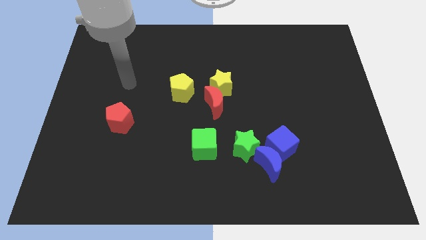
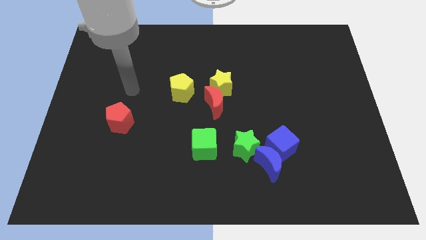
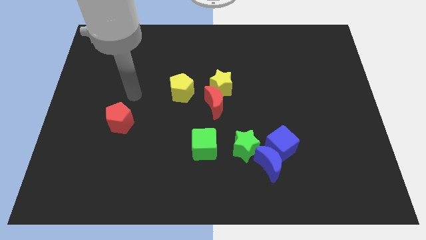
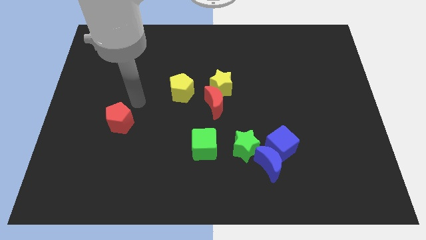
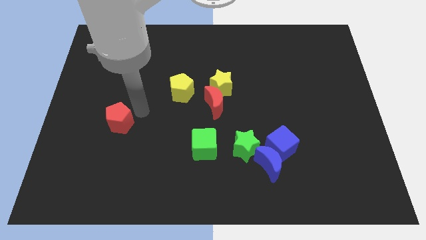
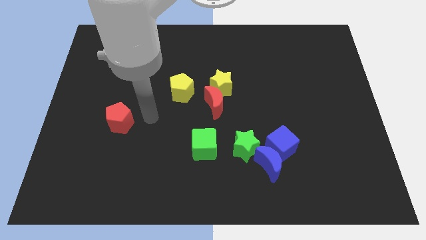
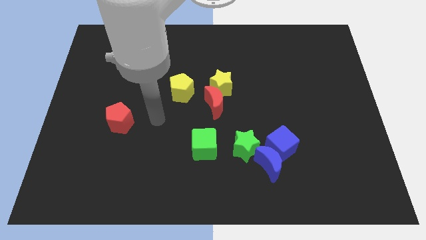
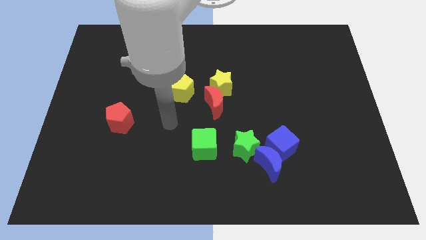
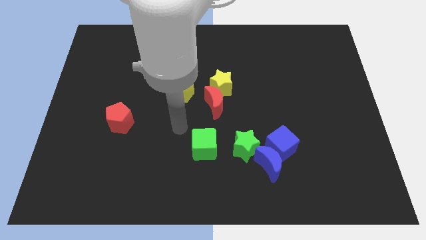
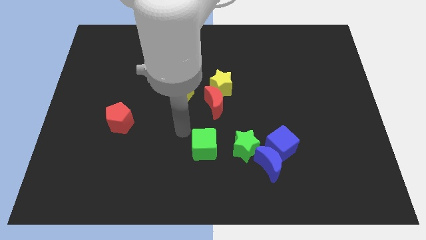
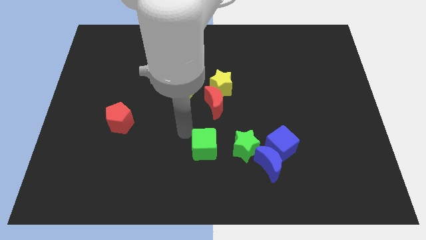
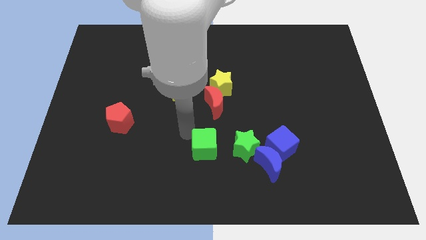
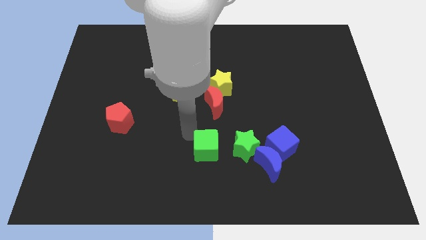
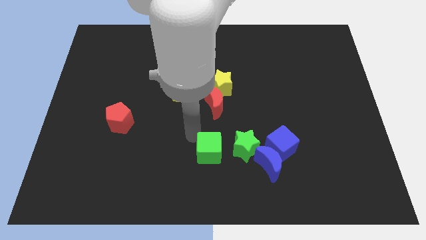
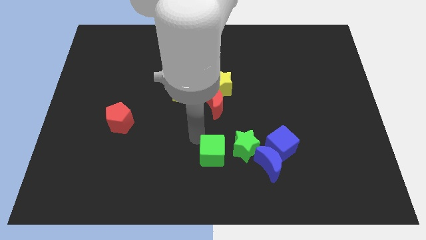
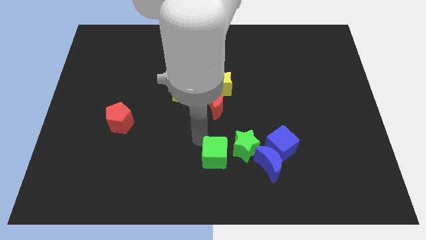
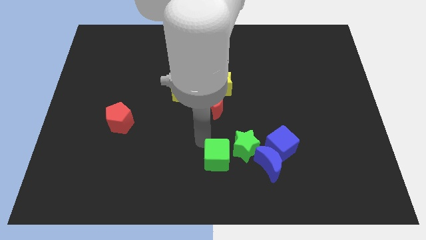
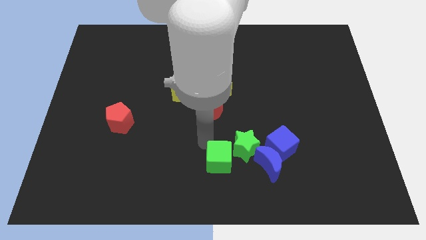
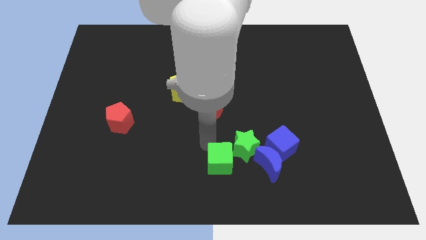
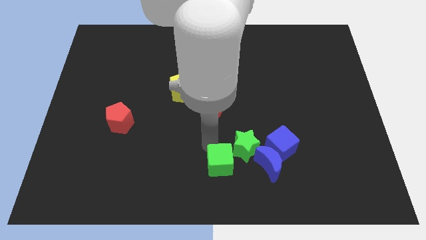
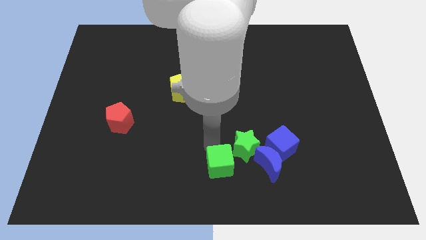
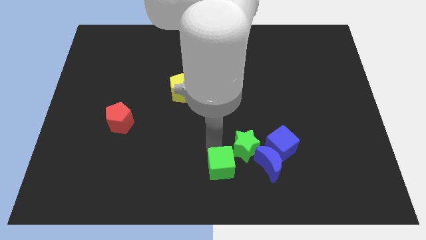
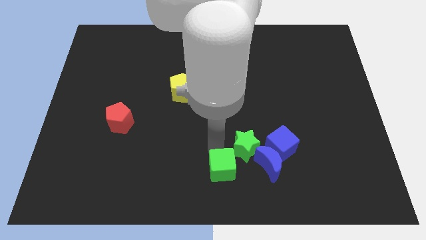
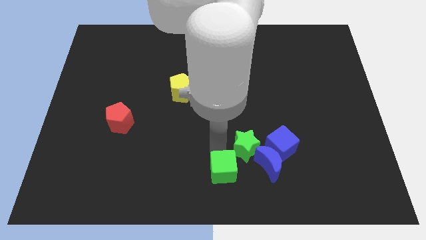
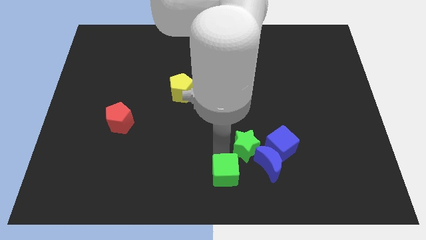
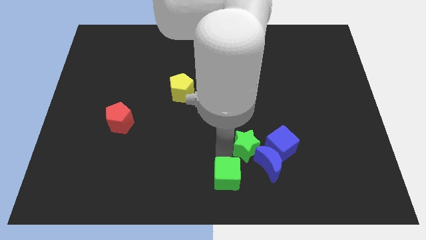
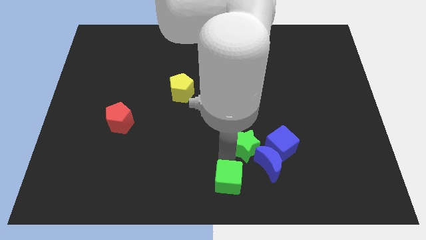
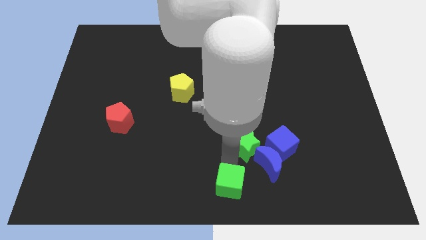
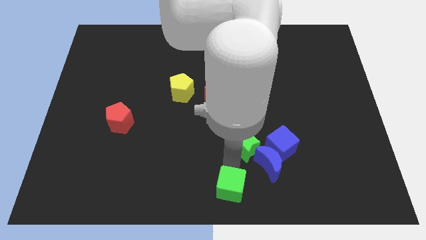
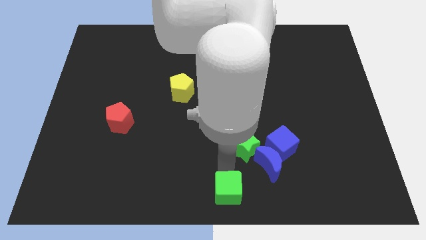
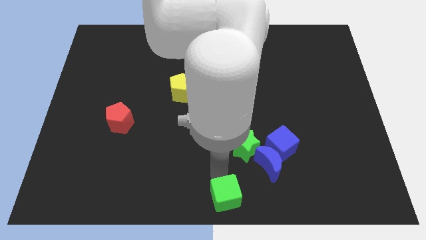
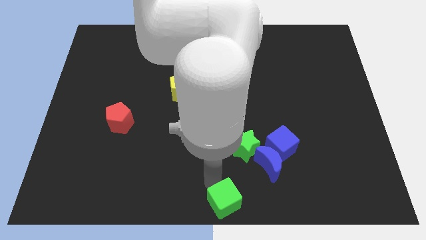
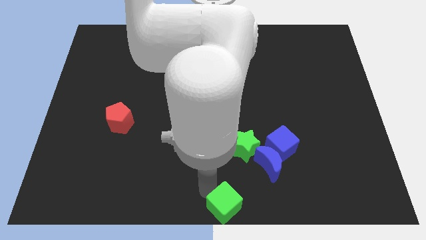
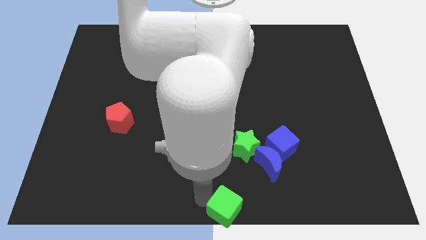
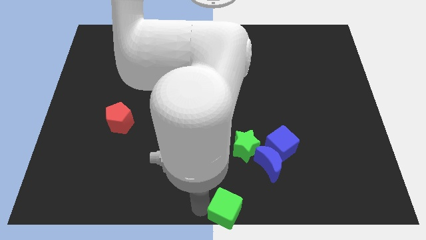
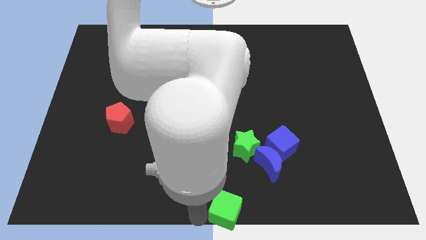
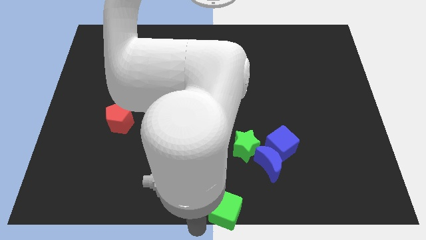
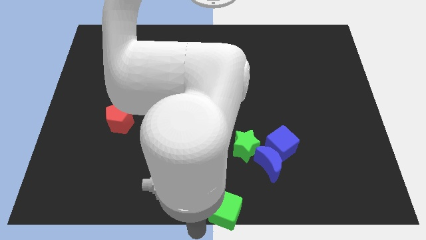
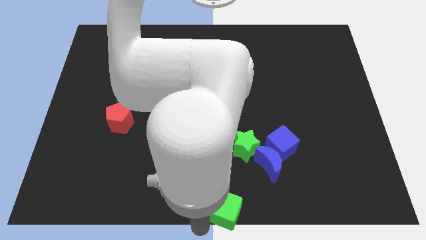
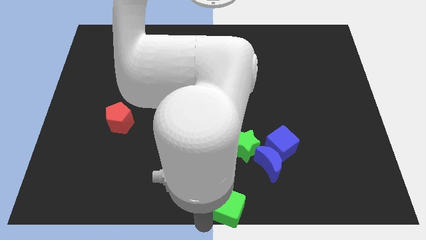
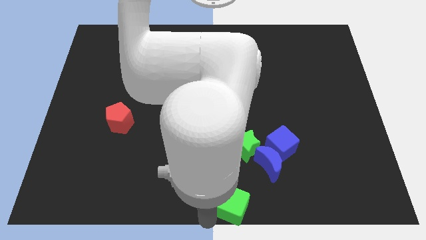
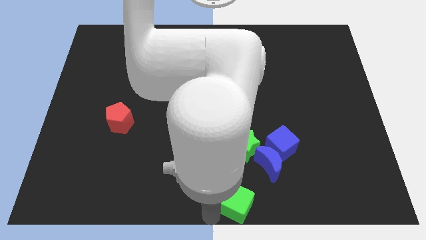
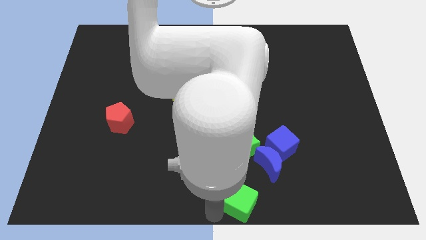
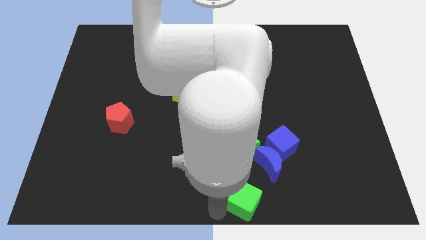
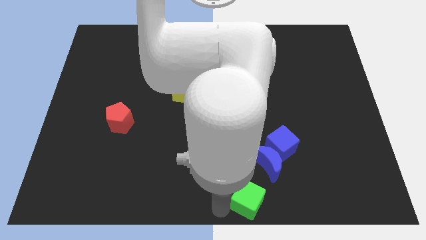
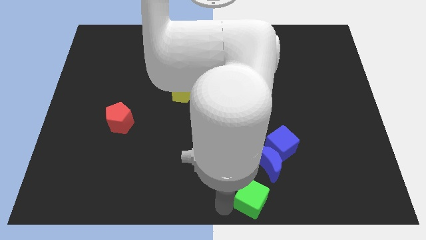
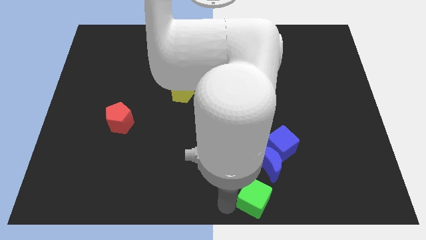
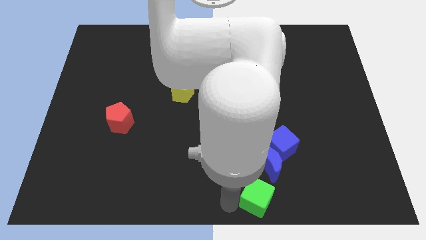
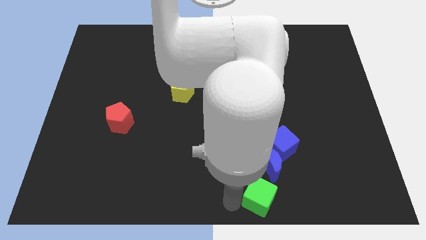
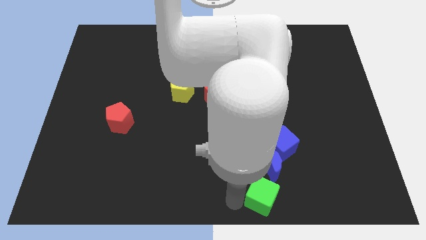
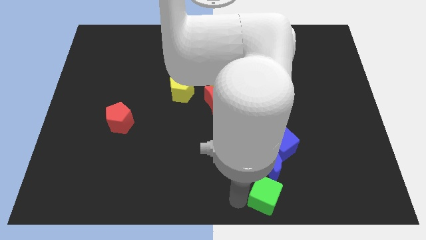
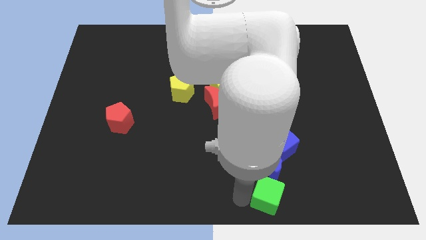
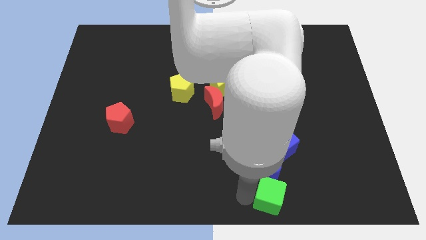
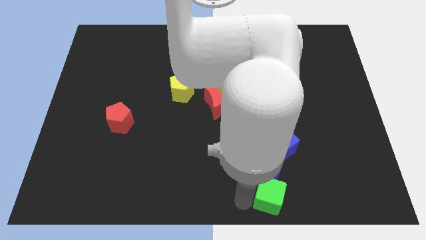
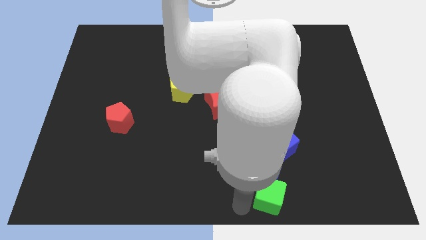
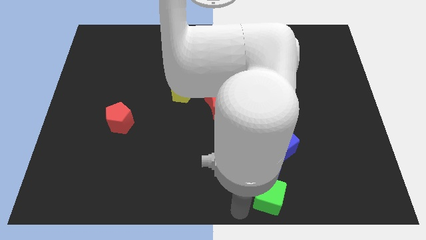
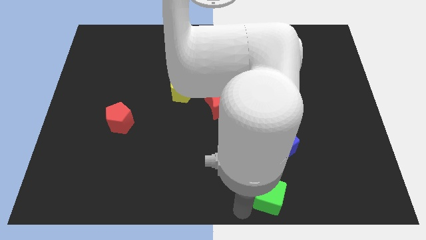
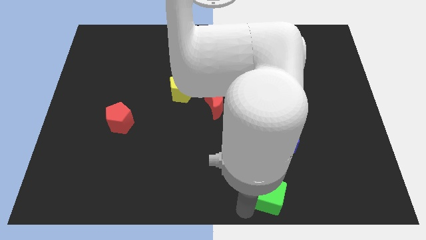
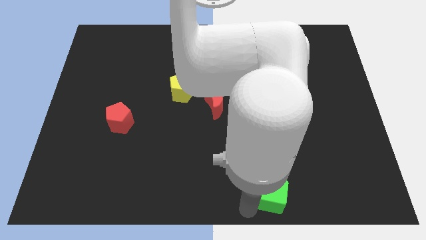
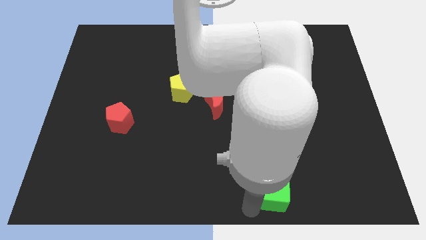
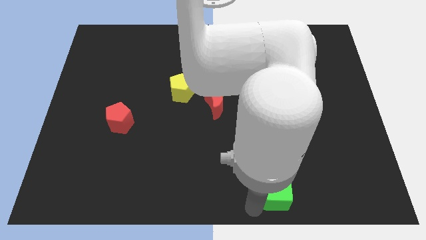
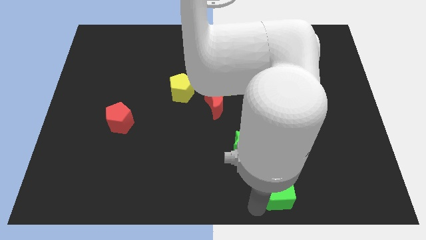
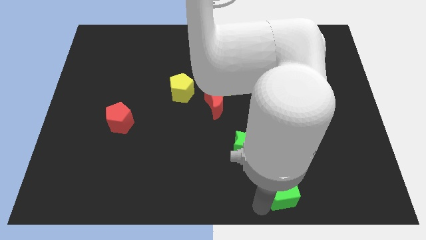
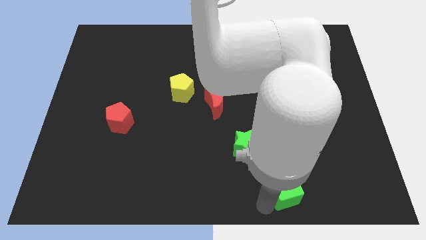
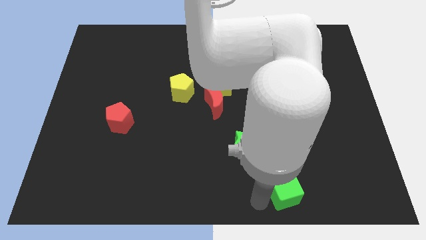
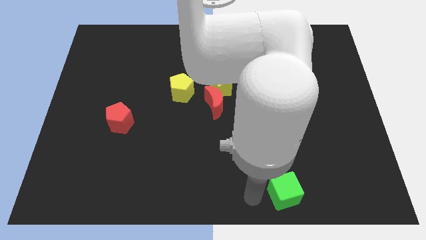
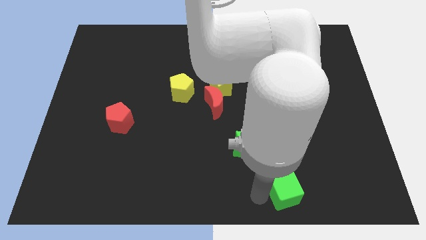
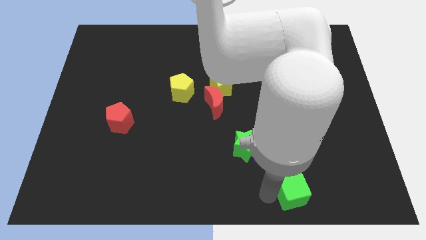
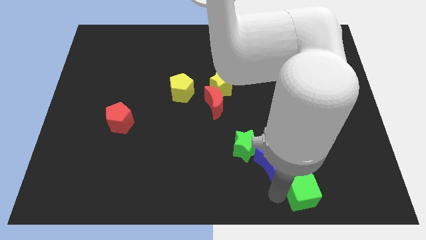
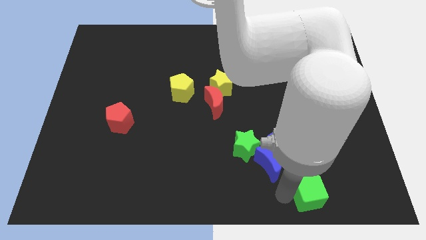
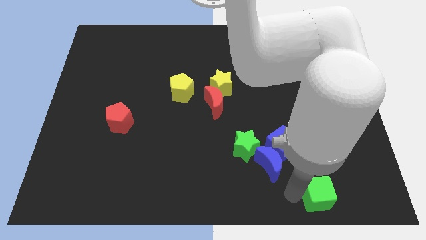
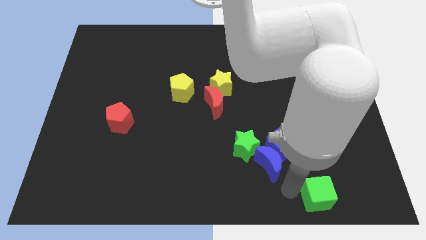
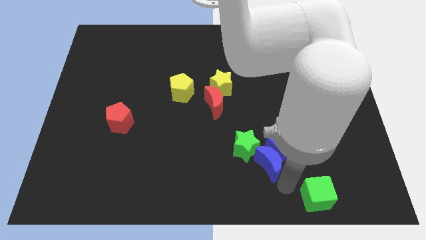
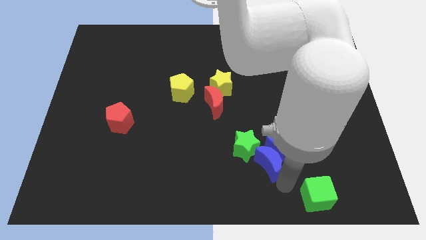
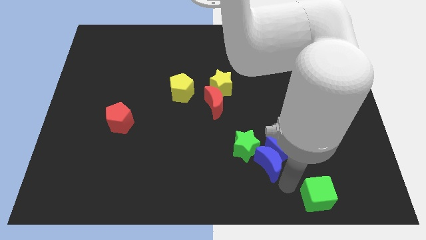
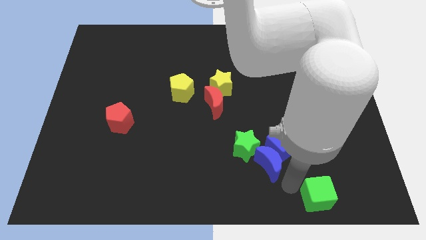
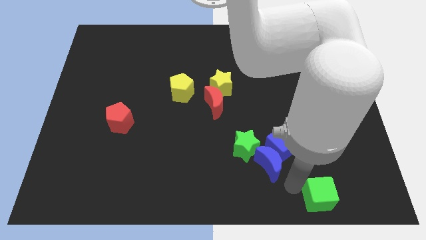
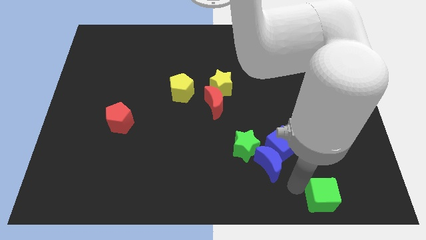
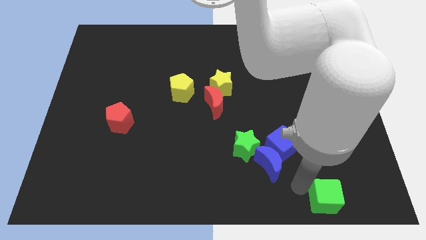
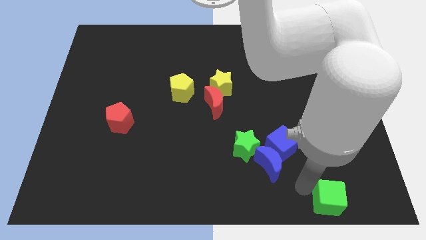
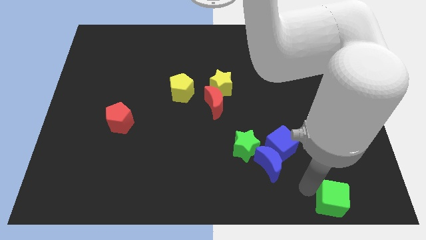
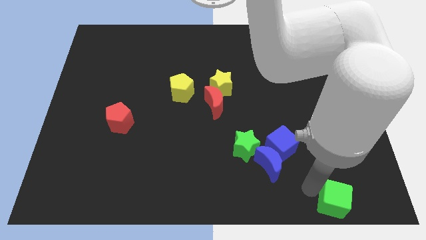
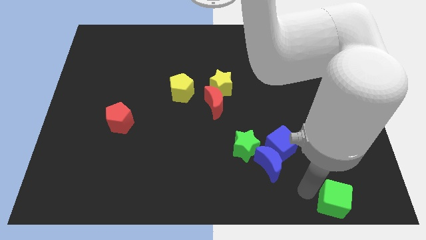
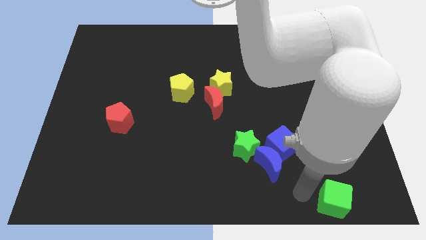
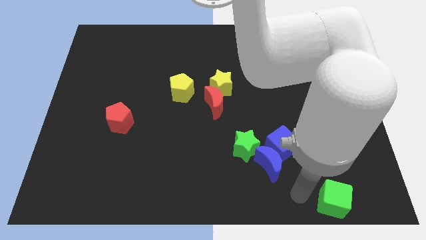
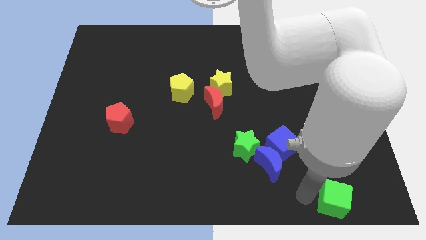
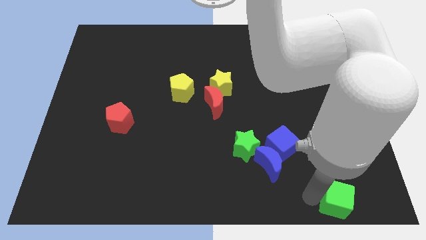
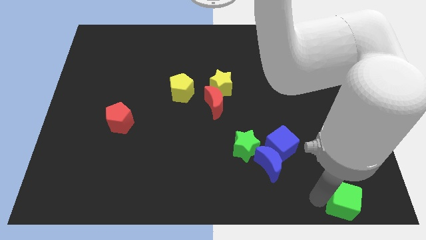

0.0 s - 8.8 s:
push the green cube to the bottom right corner
